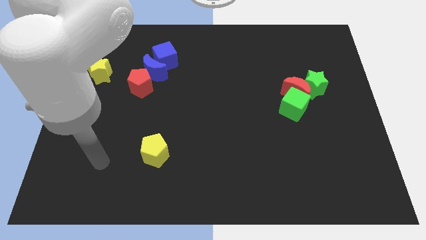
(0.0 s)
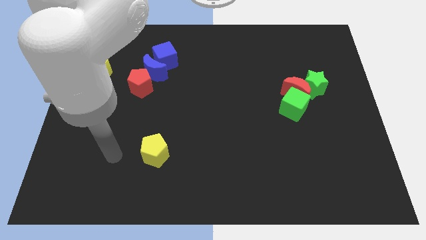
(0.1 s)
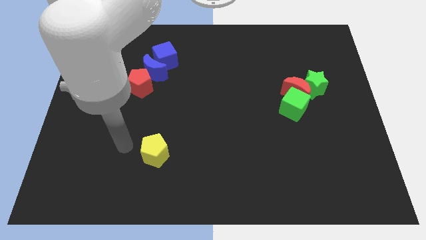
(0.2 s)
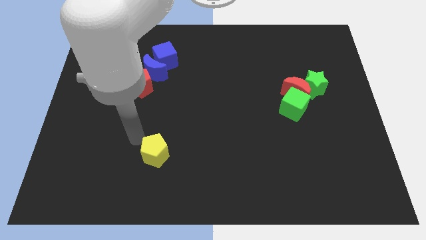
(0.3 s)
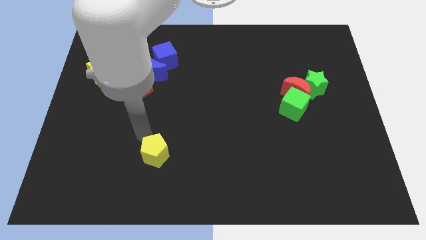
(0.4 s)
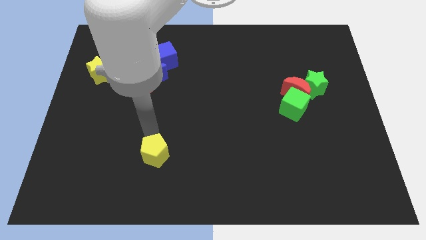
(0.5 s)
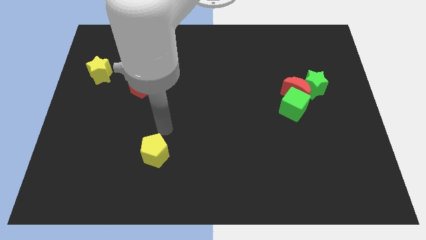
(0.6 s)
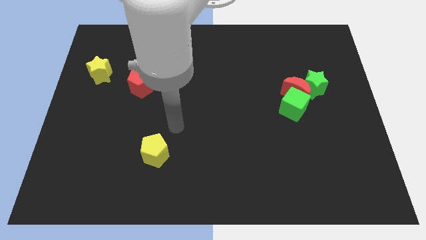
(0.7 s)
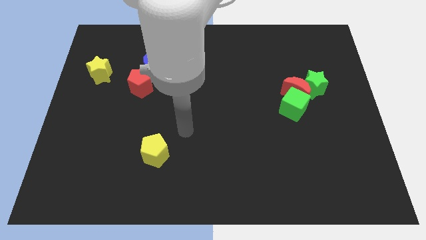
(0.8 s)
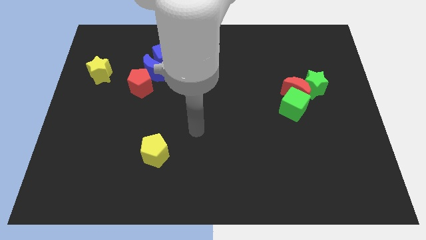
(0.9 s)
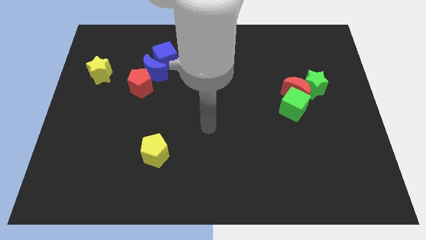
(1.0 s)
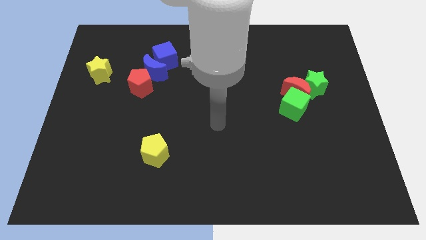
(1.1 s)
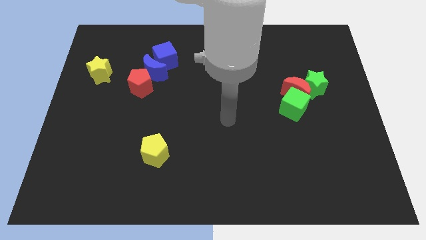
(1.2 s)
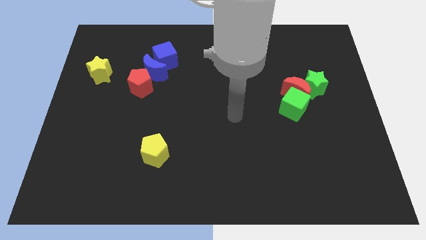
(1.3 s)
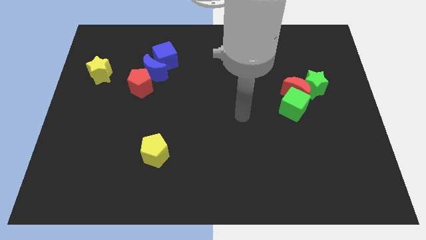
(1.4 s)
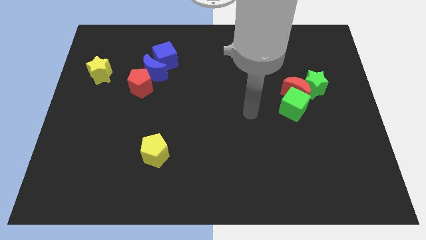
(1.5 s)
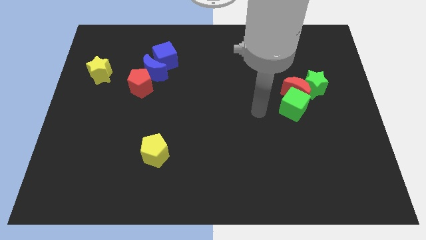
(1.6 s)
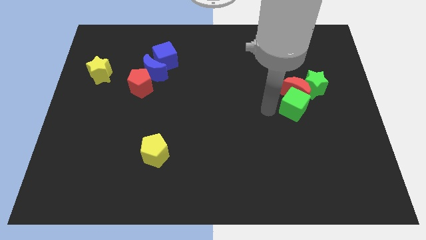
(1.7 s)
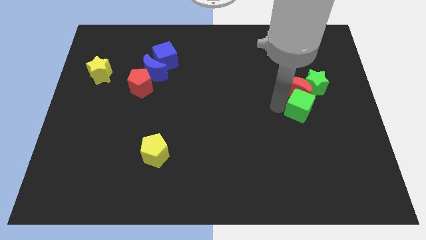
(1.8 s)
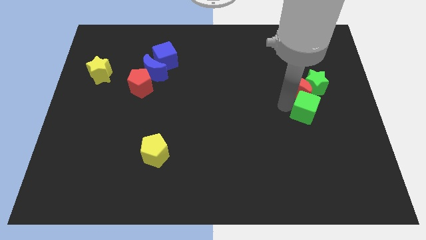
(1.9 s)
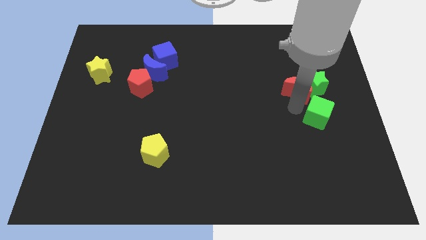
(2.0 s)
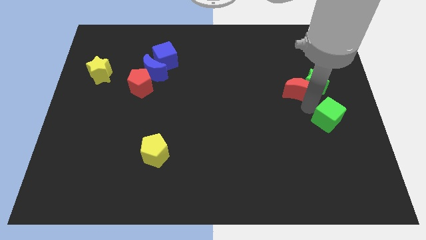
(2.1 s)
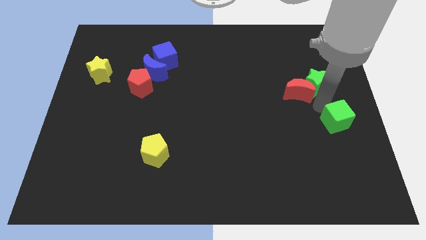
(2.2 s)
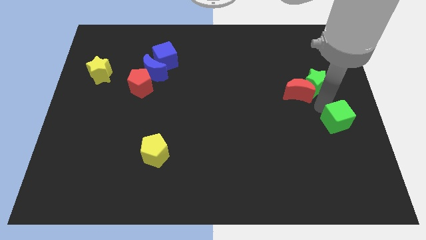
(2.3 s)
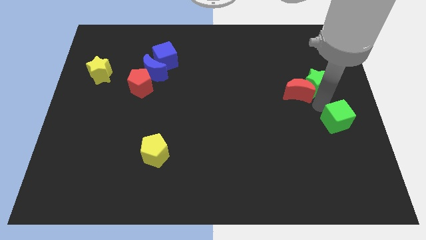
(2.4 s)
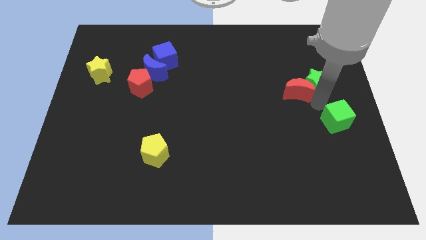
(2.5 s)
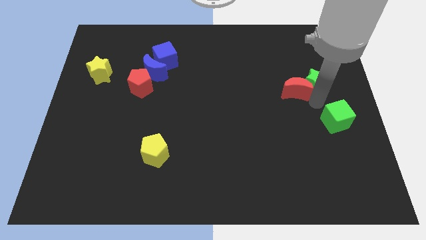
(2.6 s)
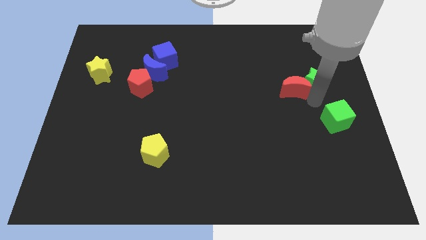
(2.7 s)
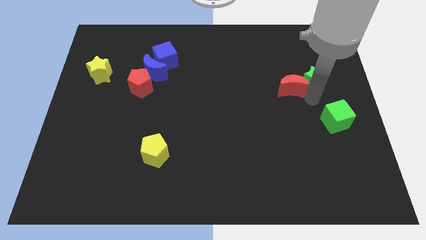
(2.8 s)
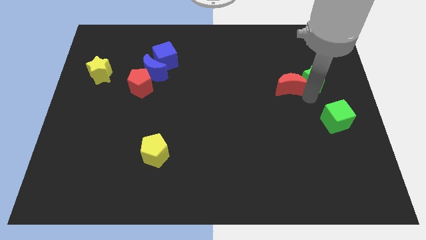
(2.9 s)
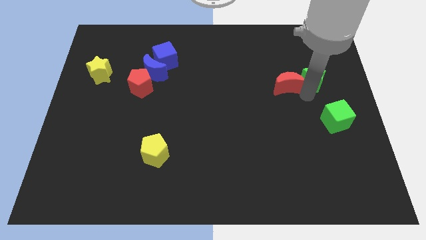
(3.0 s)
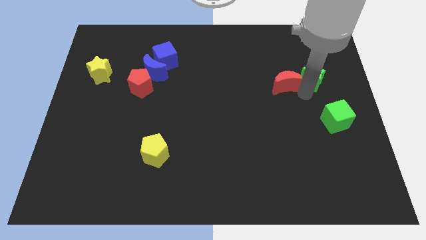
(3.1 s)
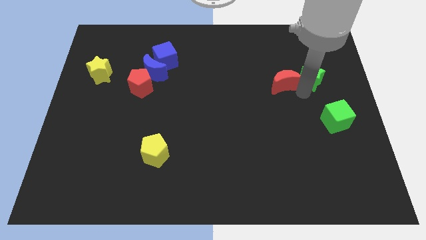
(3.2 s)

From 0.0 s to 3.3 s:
separate the red moon from the green star and green cube

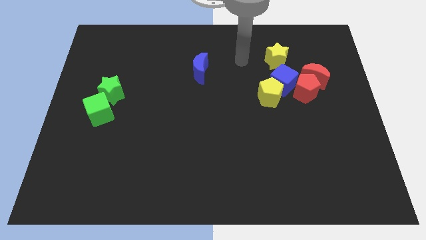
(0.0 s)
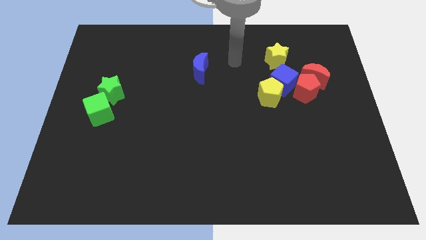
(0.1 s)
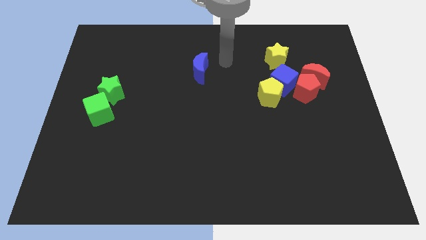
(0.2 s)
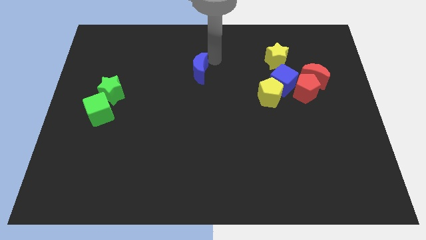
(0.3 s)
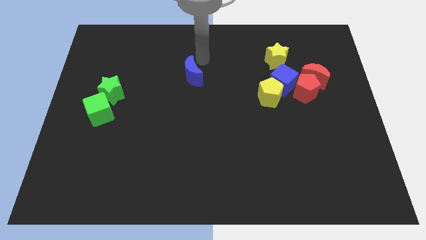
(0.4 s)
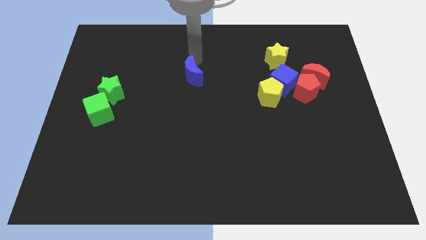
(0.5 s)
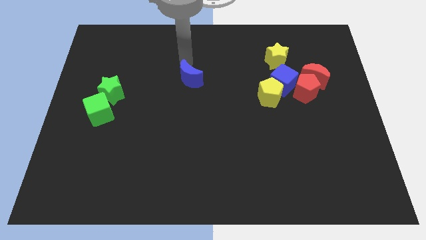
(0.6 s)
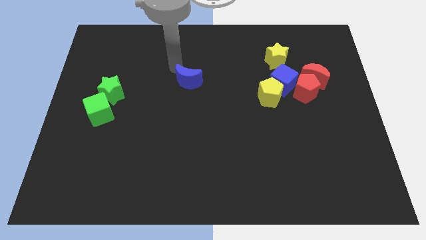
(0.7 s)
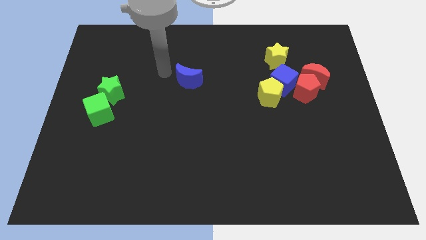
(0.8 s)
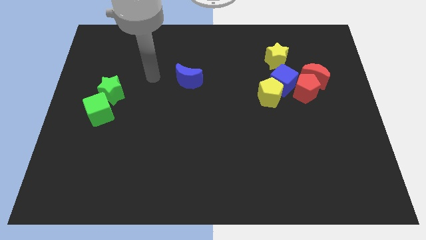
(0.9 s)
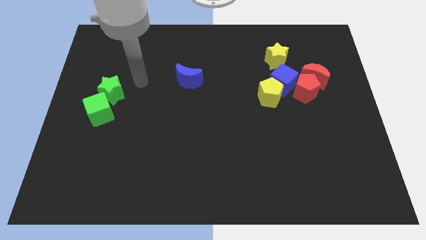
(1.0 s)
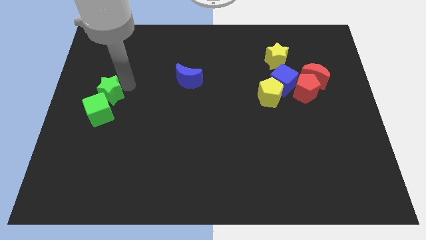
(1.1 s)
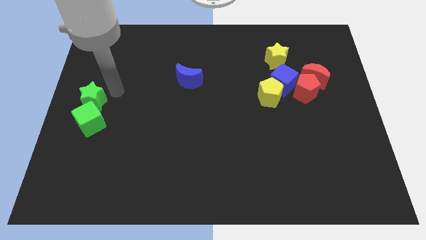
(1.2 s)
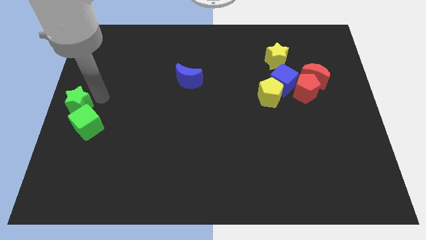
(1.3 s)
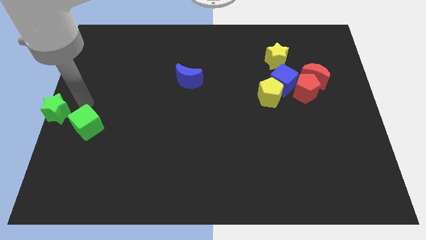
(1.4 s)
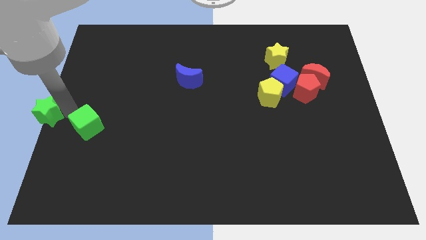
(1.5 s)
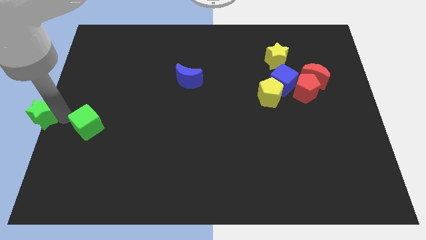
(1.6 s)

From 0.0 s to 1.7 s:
separate the green cube from the green star

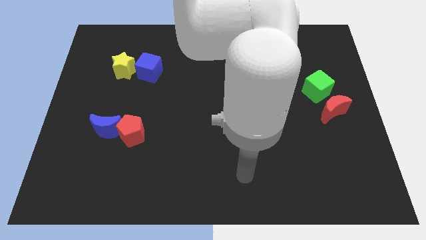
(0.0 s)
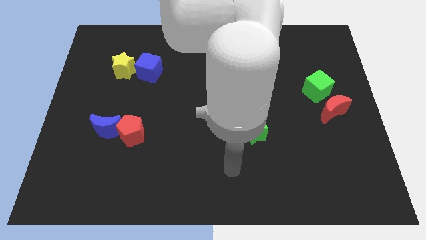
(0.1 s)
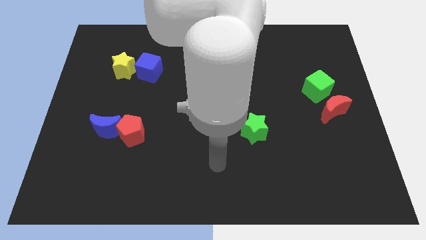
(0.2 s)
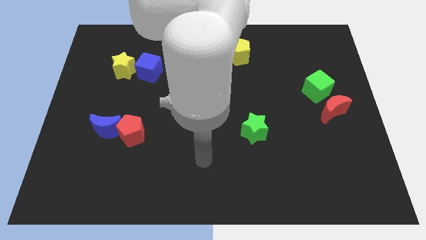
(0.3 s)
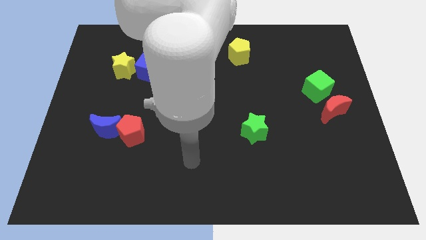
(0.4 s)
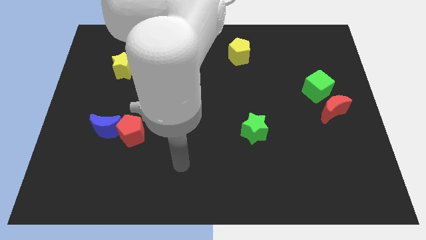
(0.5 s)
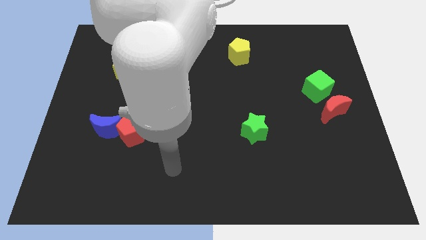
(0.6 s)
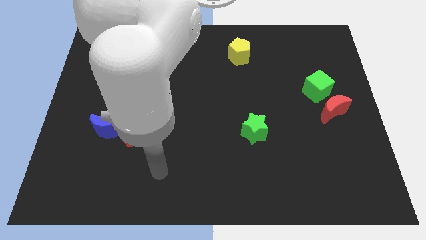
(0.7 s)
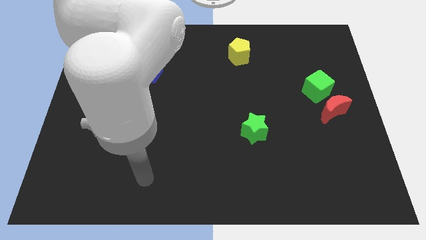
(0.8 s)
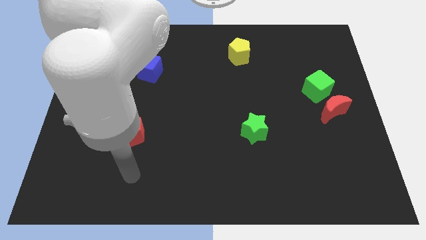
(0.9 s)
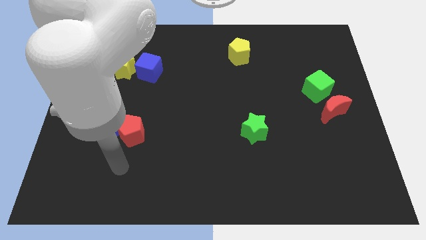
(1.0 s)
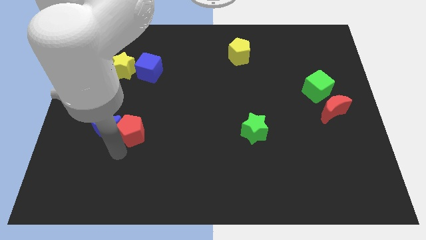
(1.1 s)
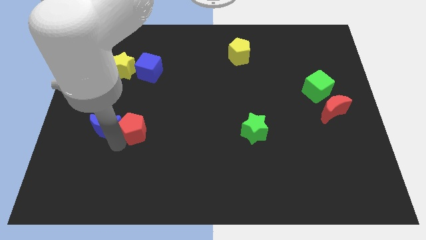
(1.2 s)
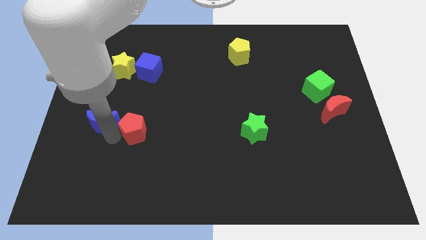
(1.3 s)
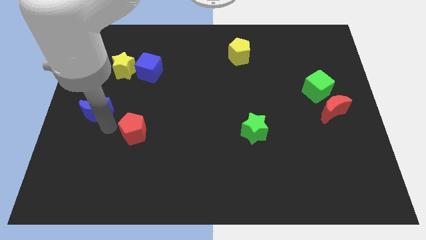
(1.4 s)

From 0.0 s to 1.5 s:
pull the red pentagon apart from the blue moon

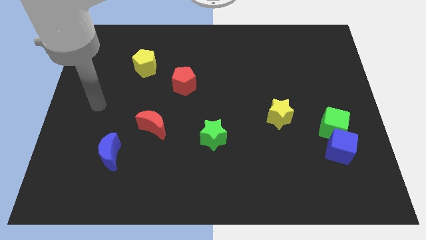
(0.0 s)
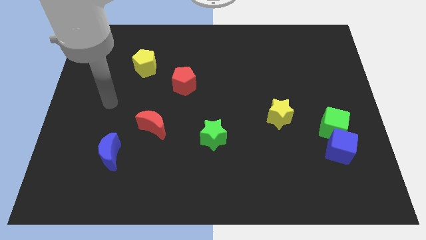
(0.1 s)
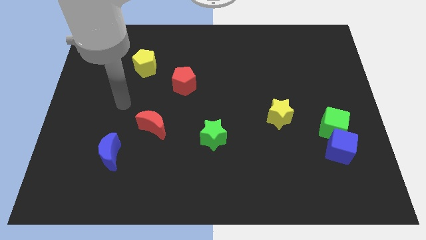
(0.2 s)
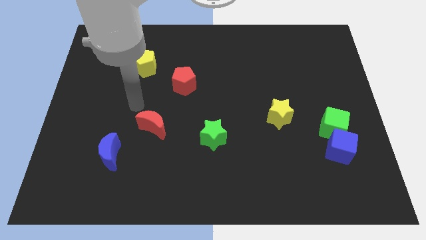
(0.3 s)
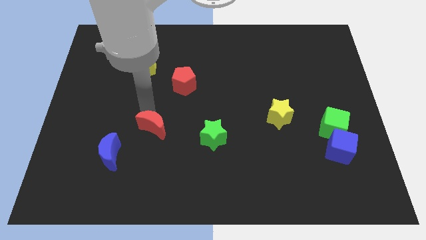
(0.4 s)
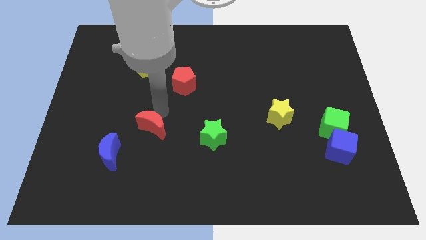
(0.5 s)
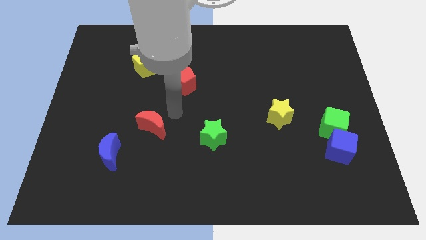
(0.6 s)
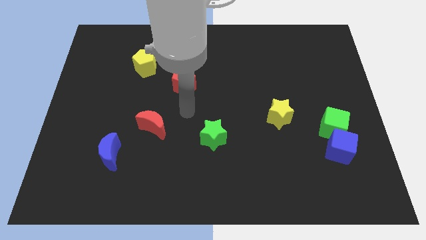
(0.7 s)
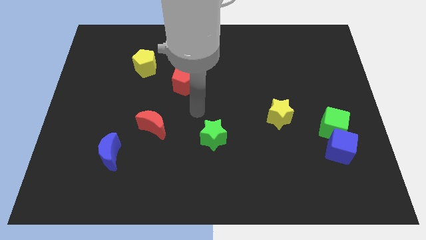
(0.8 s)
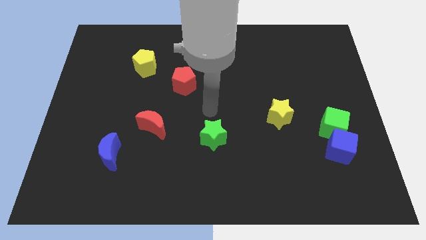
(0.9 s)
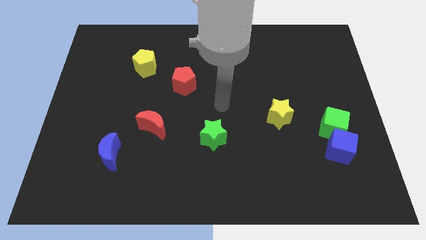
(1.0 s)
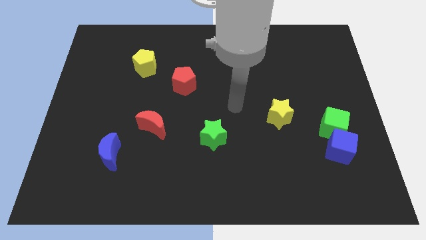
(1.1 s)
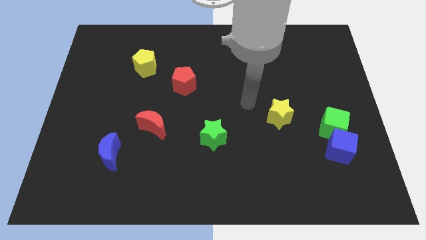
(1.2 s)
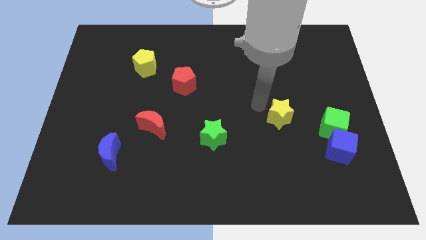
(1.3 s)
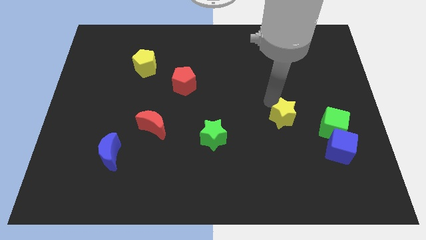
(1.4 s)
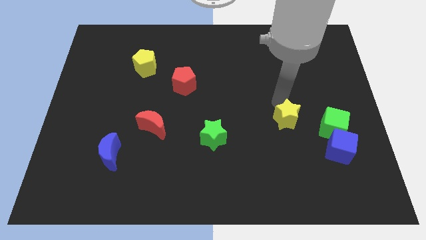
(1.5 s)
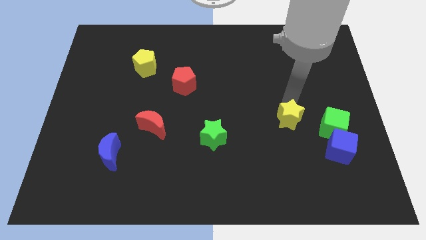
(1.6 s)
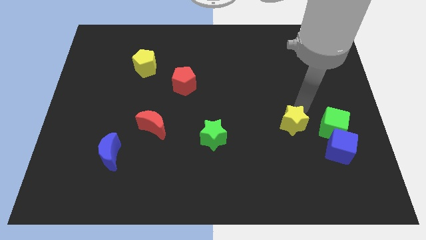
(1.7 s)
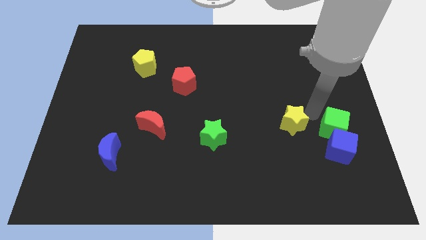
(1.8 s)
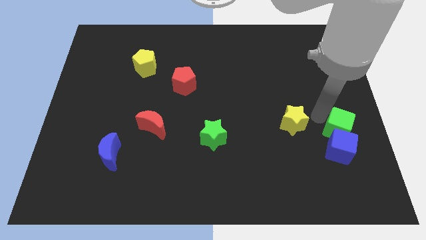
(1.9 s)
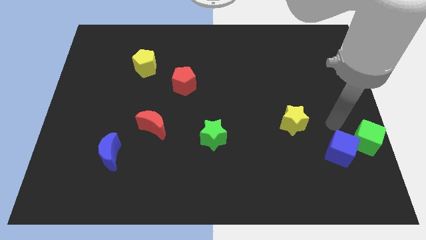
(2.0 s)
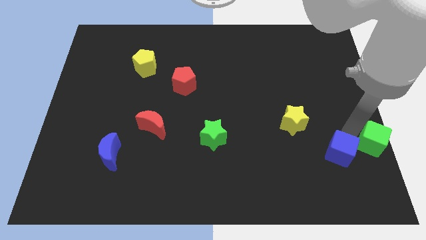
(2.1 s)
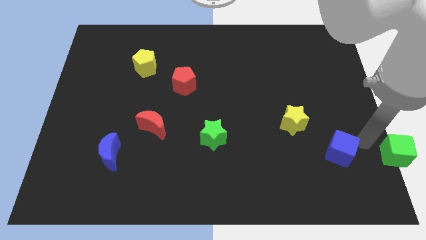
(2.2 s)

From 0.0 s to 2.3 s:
separate the blue cube from the green cube

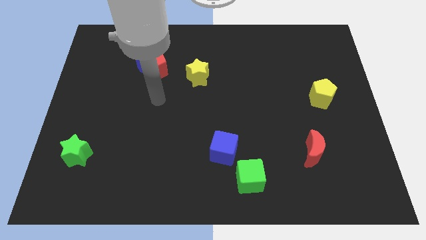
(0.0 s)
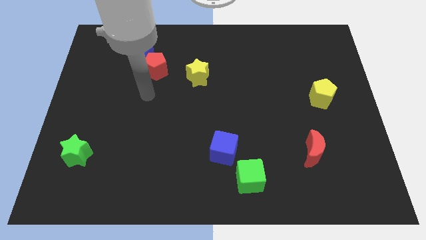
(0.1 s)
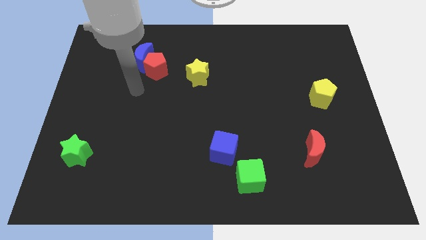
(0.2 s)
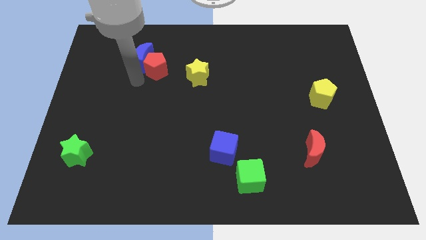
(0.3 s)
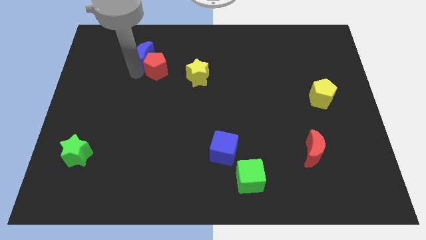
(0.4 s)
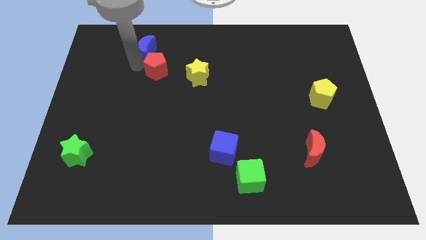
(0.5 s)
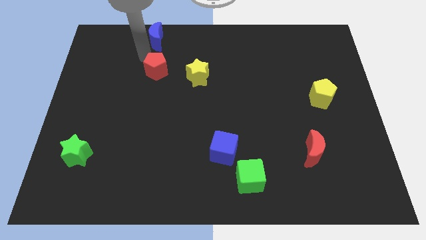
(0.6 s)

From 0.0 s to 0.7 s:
move the red pentagon away from the blue moon
